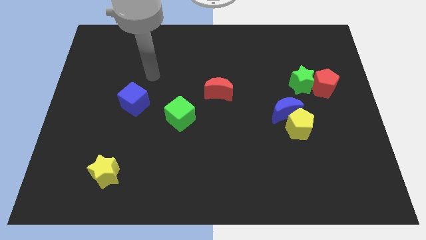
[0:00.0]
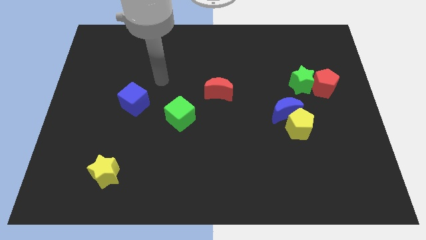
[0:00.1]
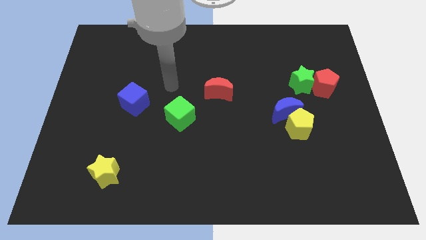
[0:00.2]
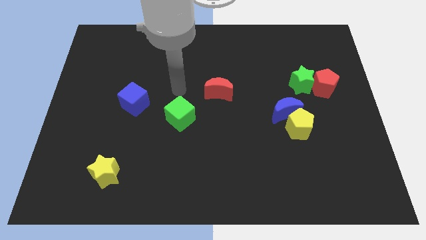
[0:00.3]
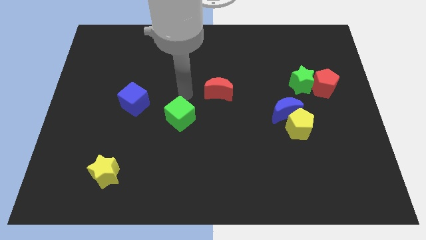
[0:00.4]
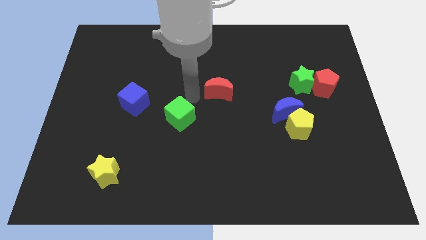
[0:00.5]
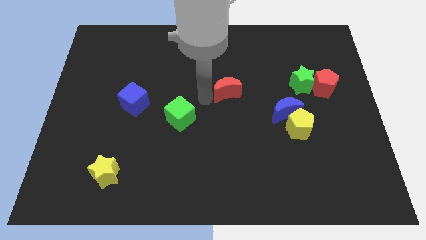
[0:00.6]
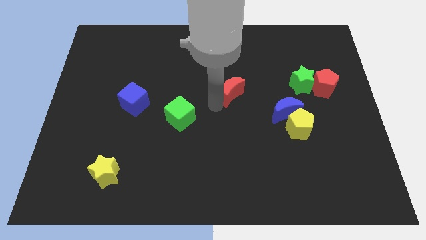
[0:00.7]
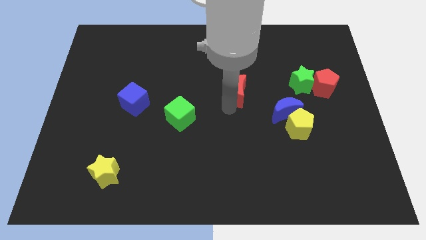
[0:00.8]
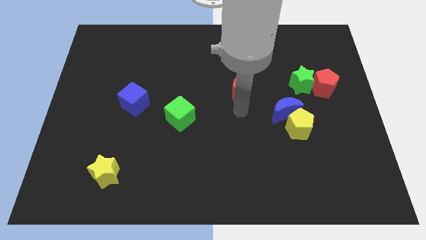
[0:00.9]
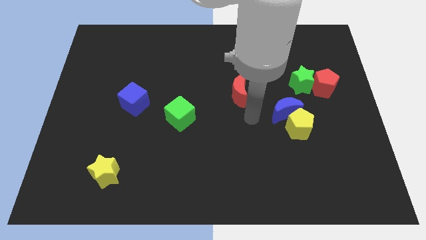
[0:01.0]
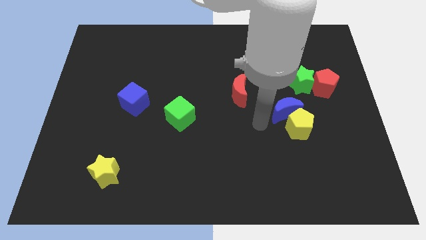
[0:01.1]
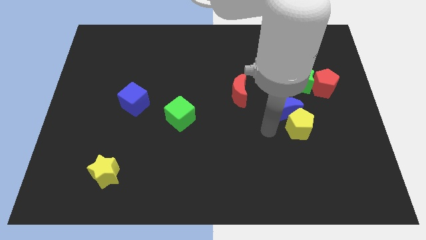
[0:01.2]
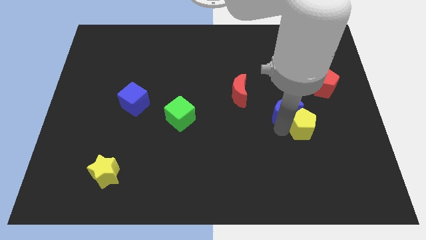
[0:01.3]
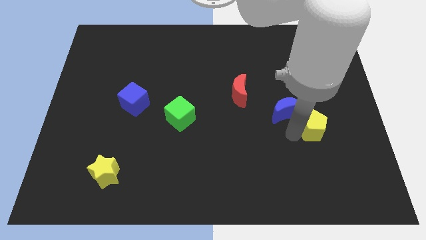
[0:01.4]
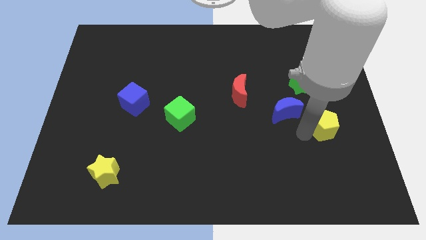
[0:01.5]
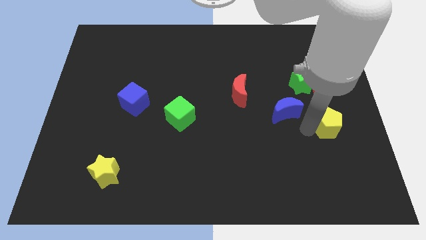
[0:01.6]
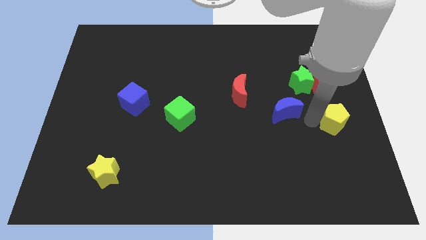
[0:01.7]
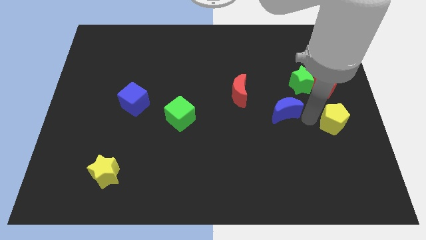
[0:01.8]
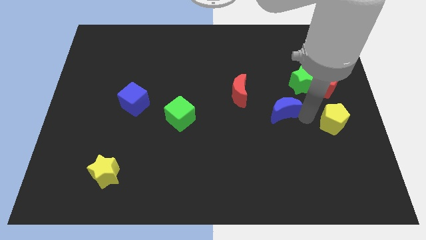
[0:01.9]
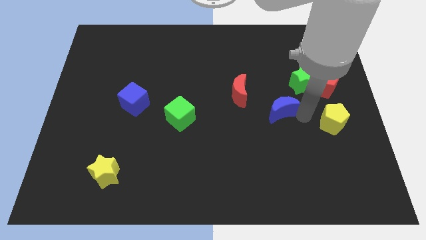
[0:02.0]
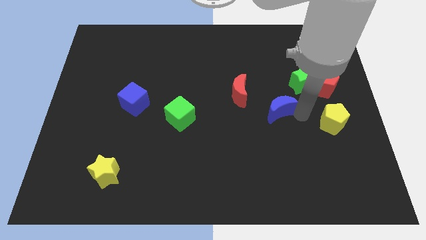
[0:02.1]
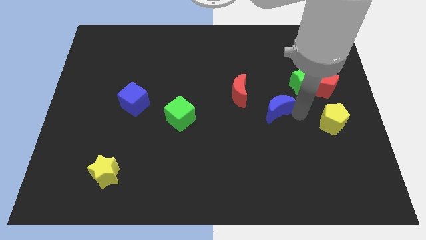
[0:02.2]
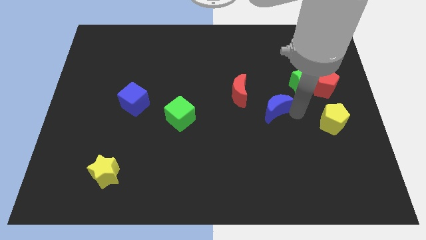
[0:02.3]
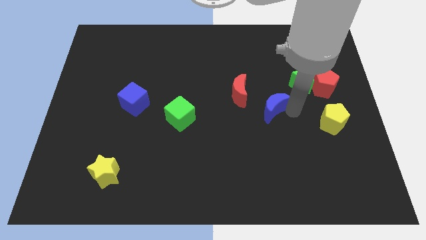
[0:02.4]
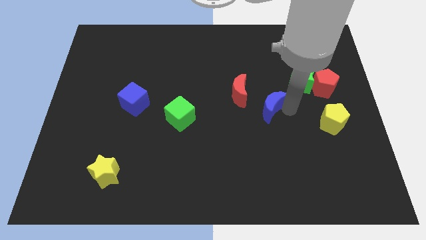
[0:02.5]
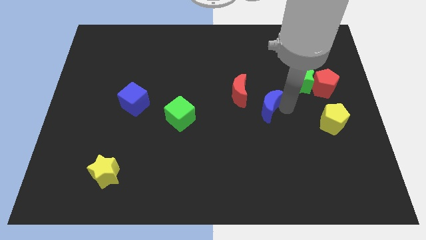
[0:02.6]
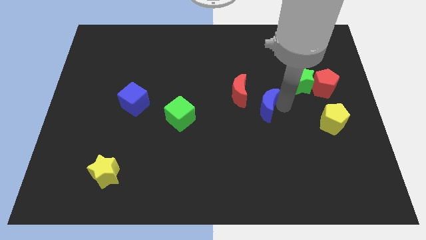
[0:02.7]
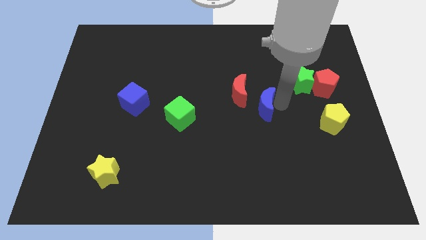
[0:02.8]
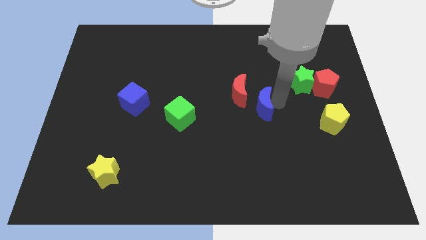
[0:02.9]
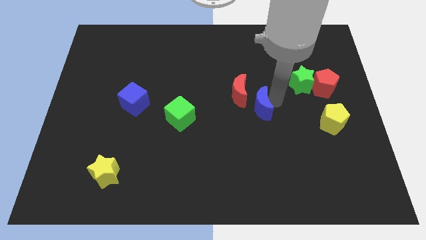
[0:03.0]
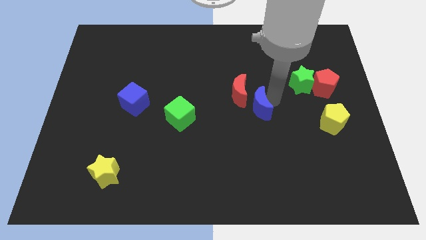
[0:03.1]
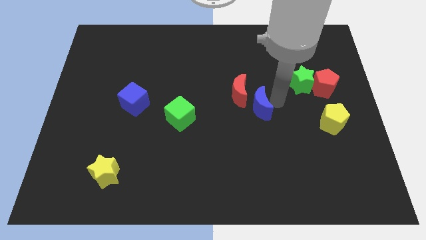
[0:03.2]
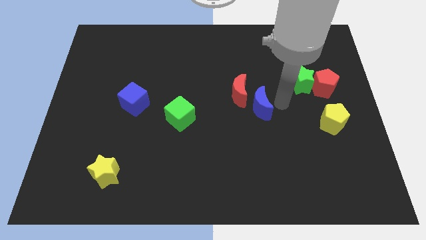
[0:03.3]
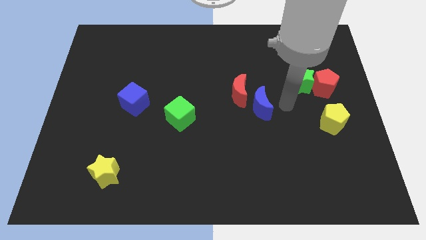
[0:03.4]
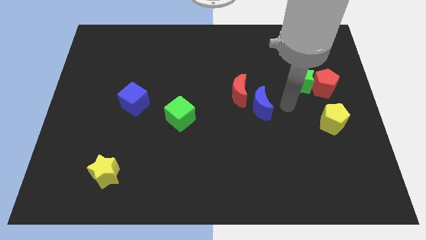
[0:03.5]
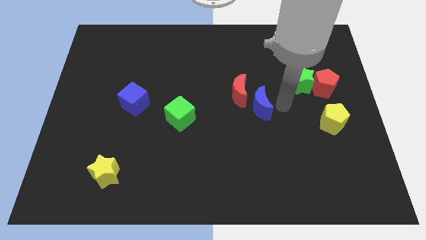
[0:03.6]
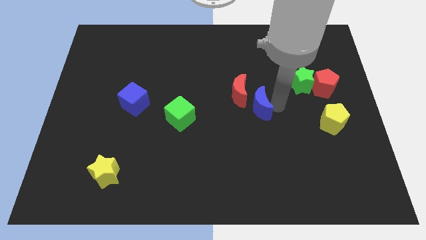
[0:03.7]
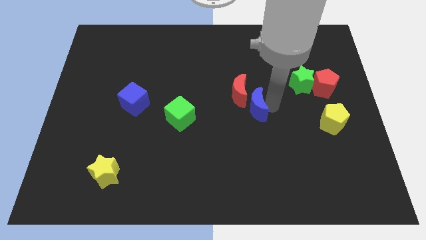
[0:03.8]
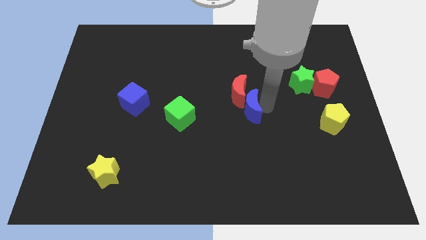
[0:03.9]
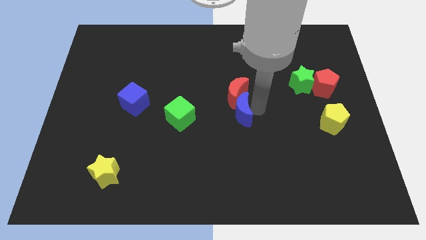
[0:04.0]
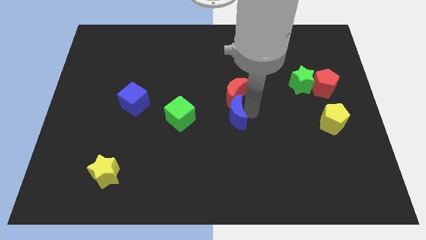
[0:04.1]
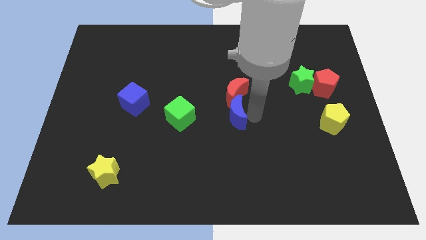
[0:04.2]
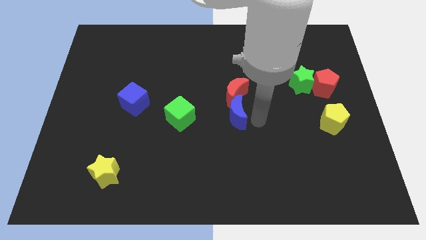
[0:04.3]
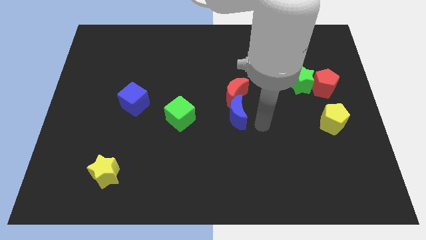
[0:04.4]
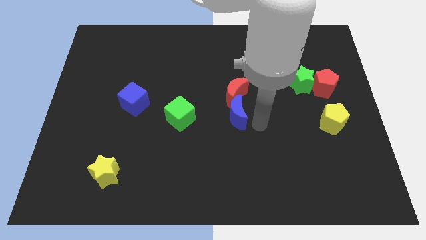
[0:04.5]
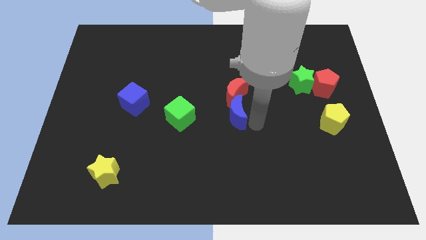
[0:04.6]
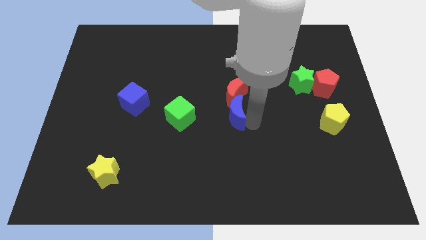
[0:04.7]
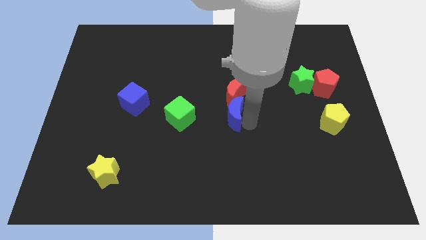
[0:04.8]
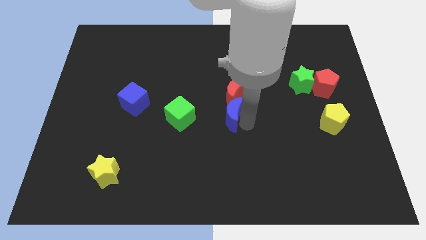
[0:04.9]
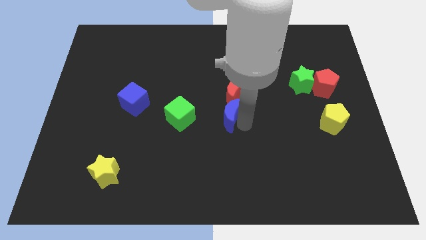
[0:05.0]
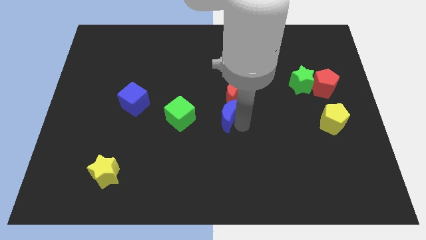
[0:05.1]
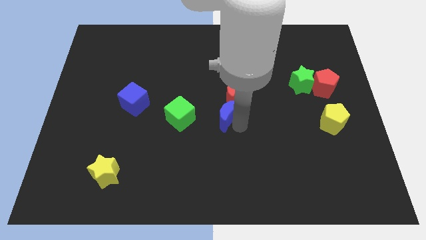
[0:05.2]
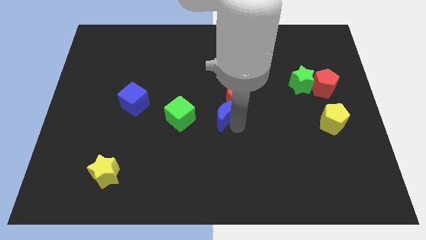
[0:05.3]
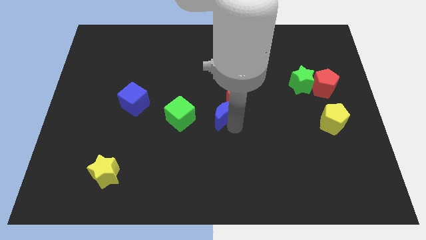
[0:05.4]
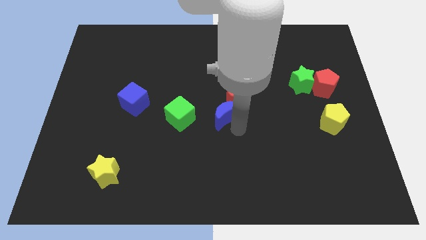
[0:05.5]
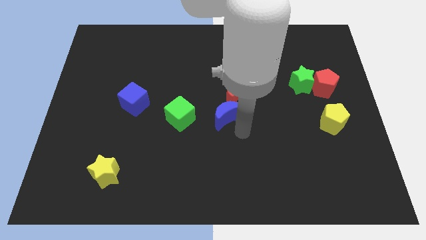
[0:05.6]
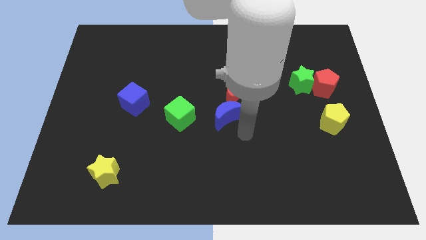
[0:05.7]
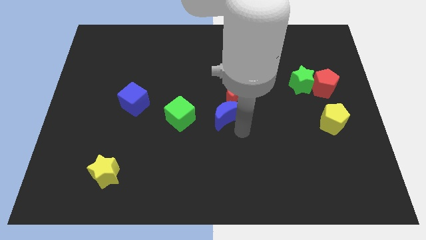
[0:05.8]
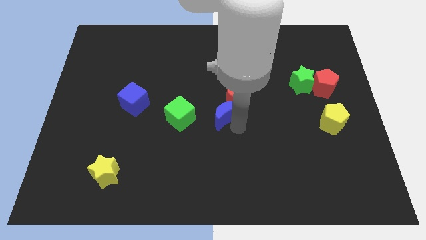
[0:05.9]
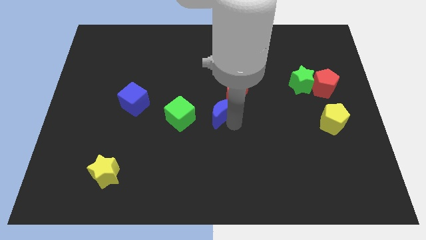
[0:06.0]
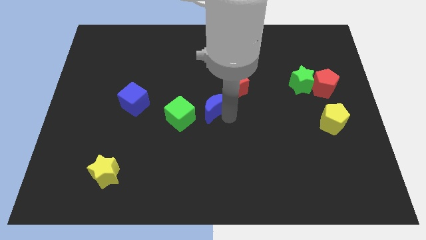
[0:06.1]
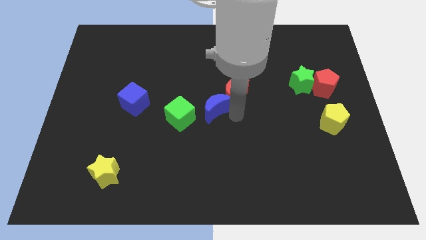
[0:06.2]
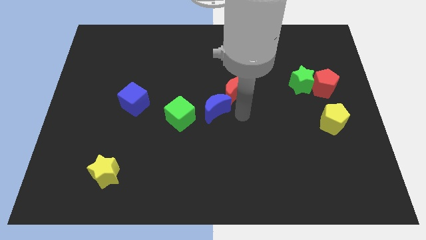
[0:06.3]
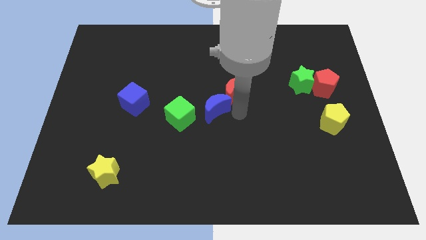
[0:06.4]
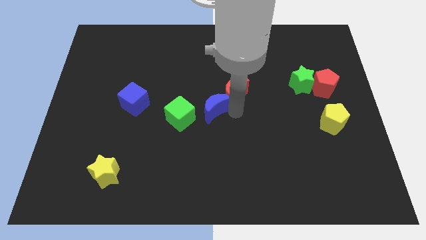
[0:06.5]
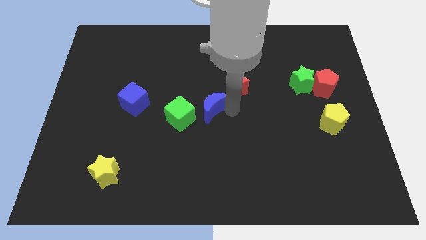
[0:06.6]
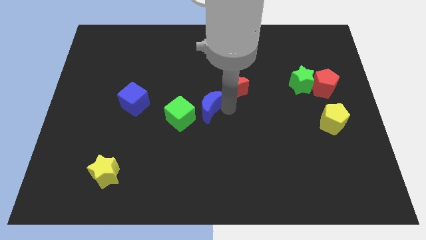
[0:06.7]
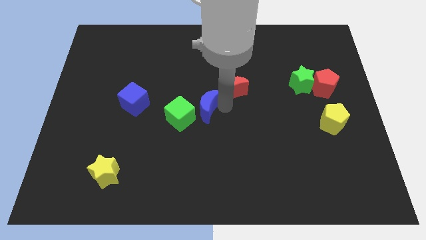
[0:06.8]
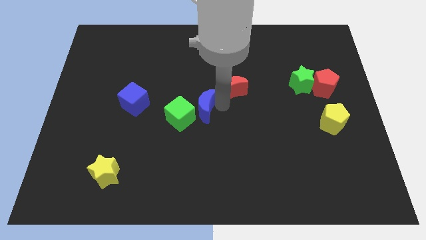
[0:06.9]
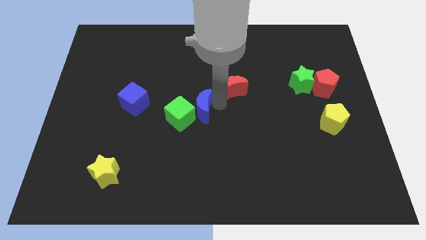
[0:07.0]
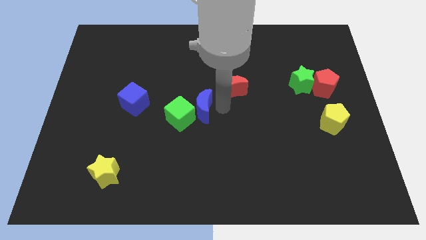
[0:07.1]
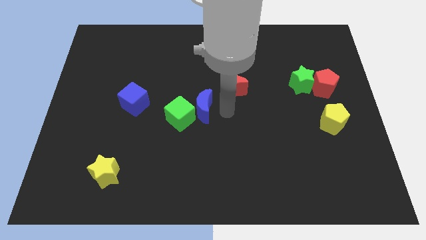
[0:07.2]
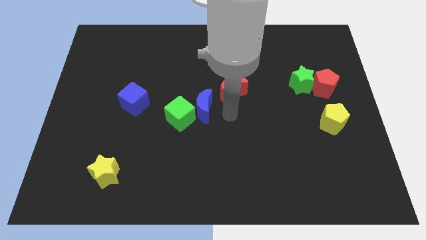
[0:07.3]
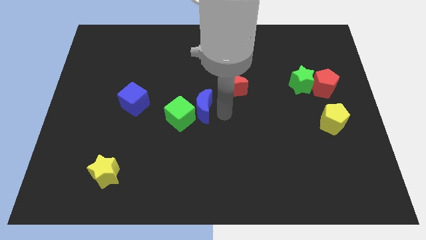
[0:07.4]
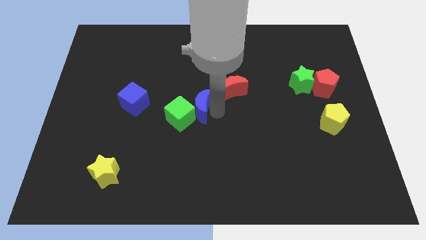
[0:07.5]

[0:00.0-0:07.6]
put the blue moon to the right of the blue cube
